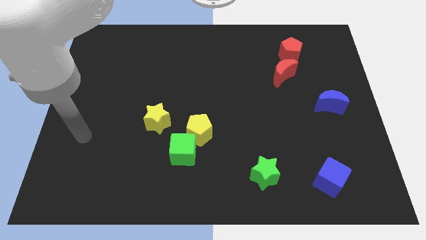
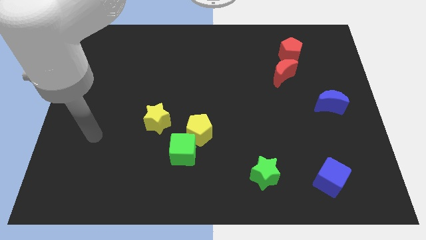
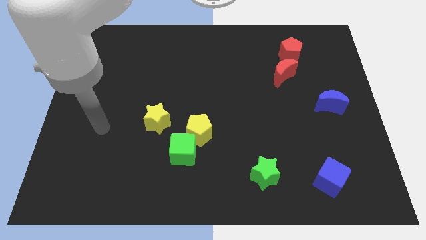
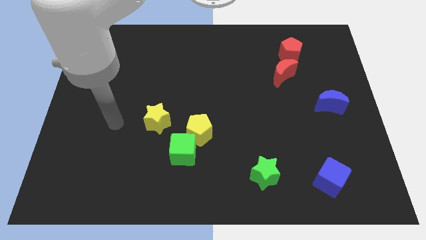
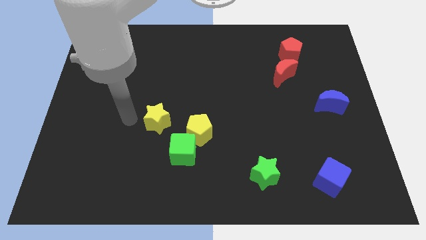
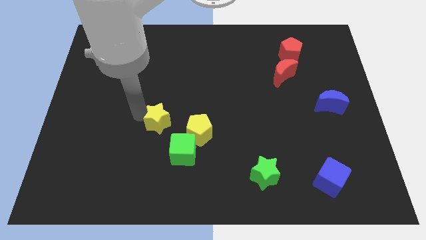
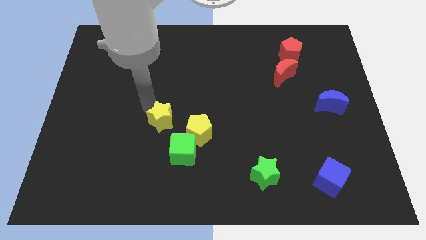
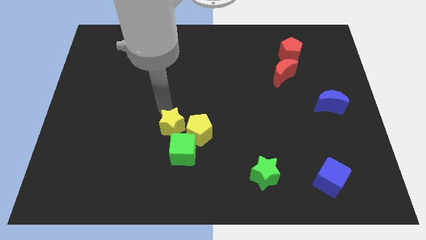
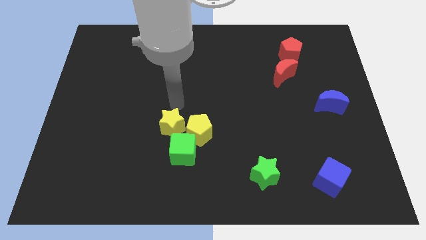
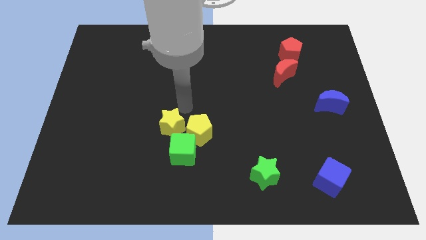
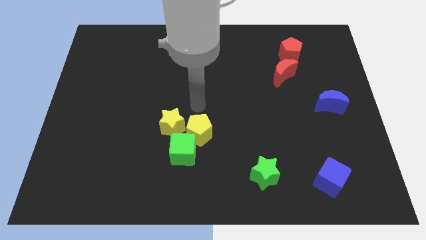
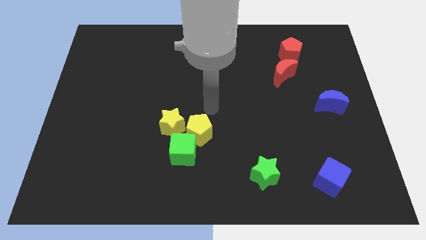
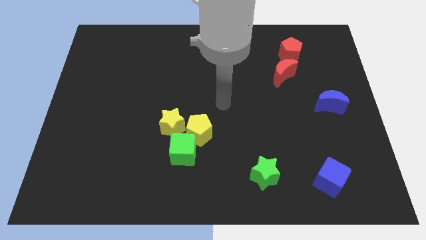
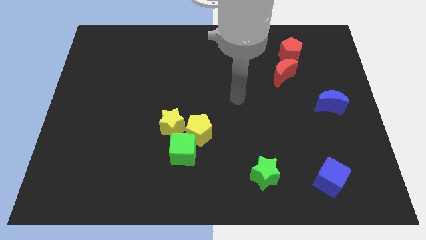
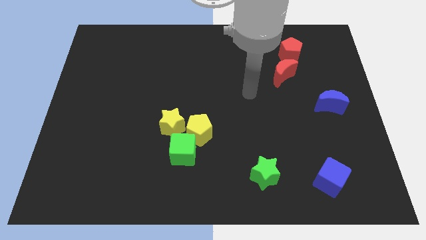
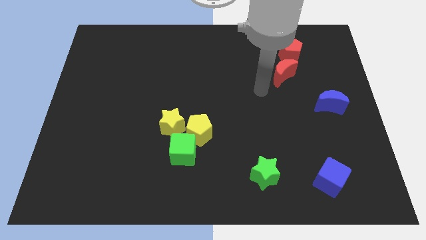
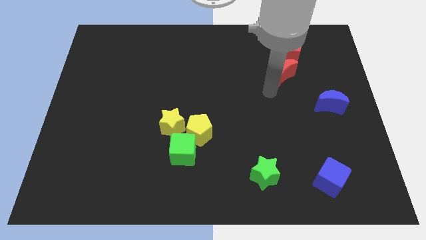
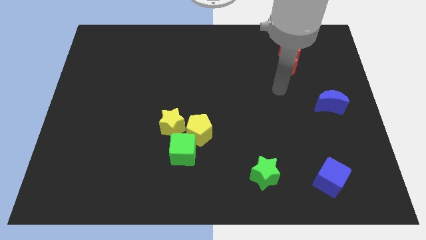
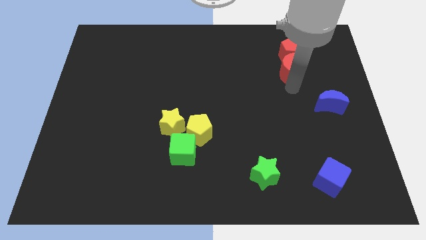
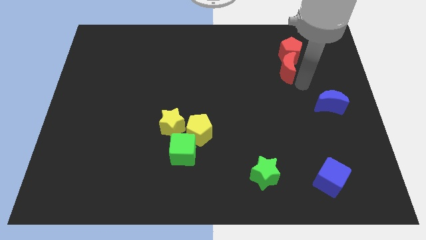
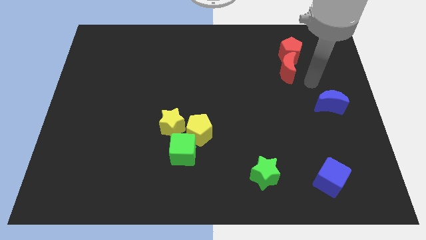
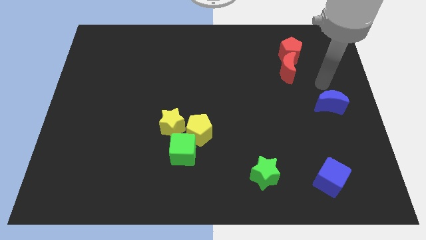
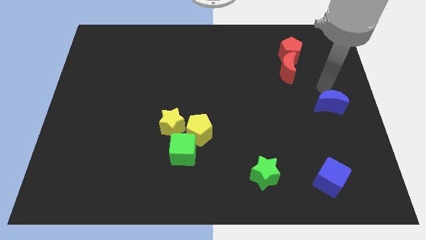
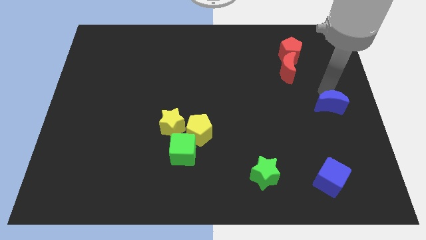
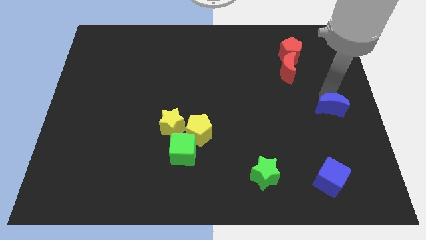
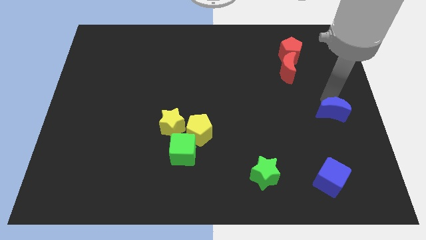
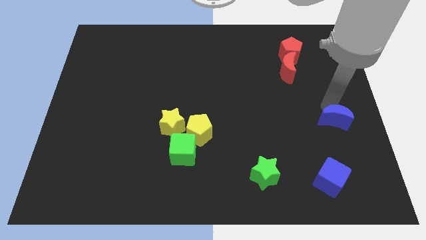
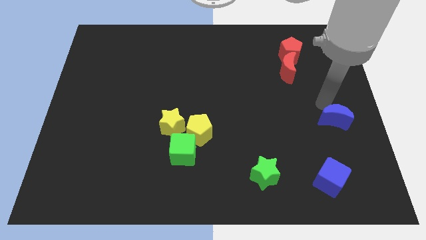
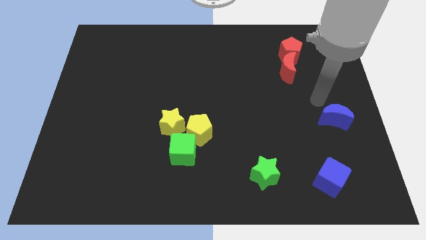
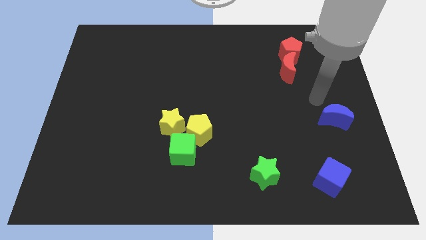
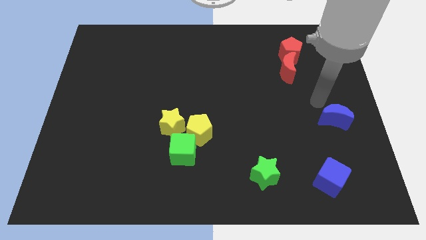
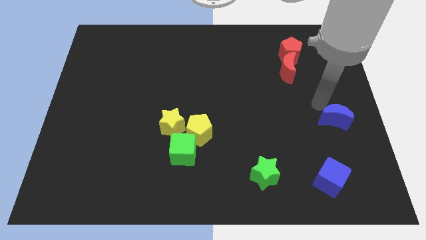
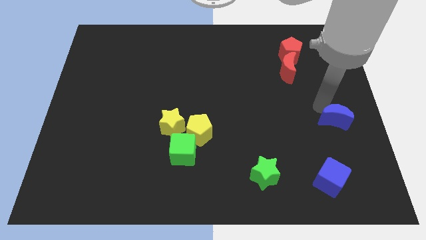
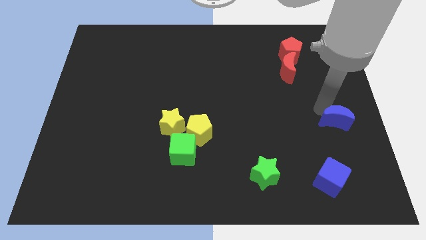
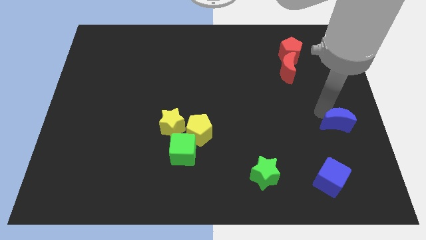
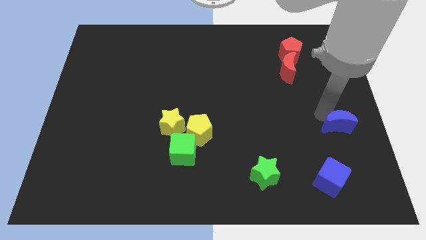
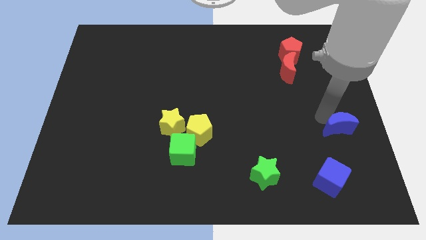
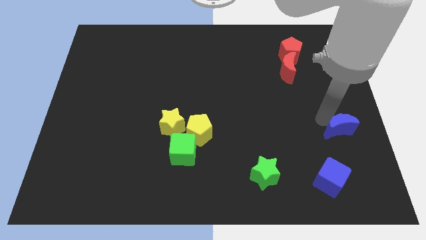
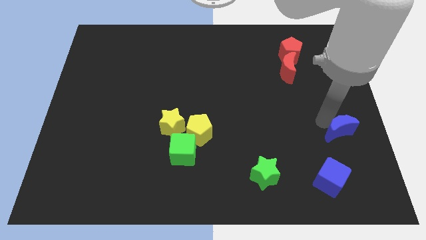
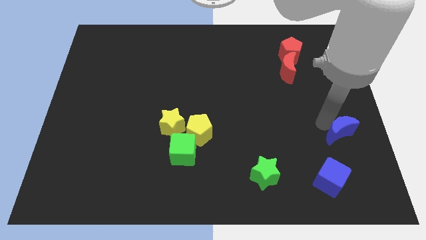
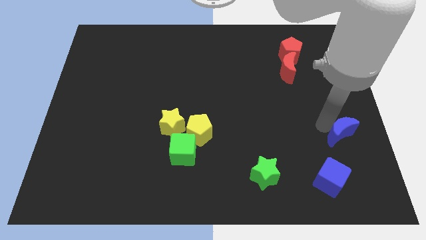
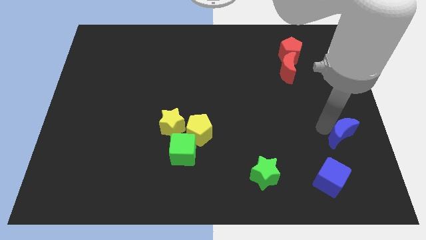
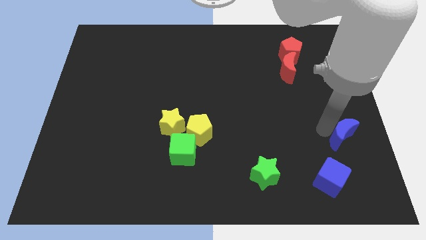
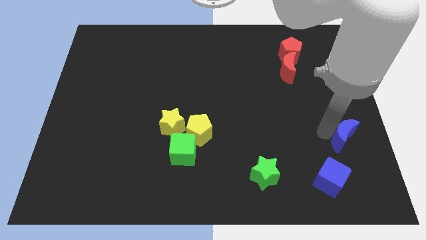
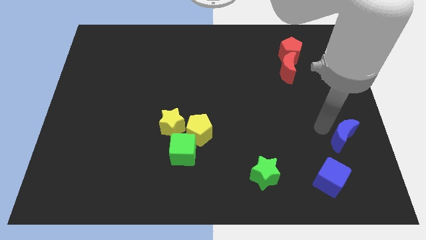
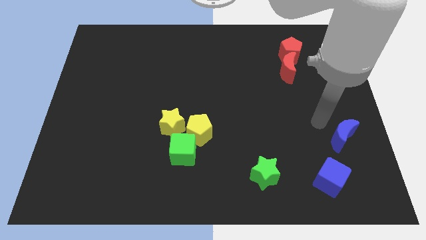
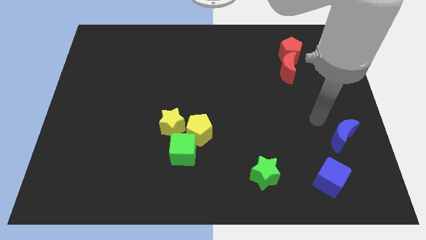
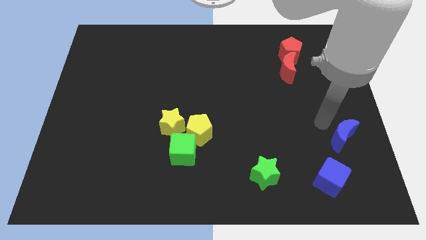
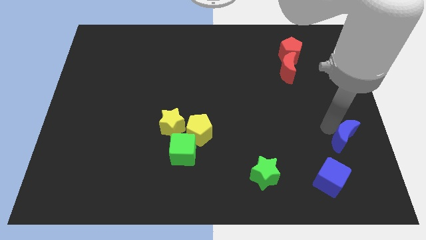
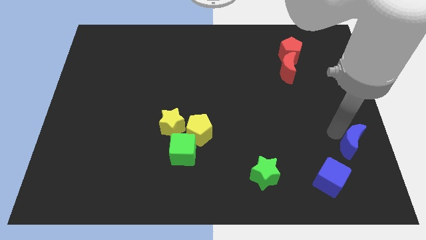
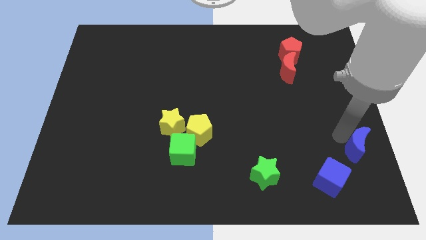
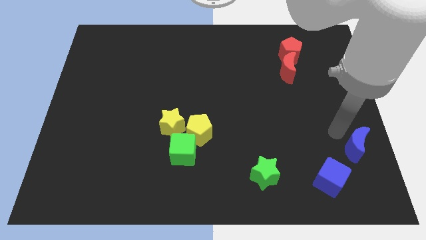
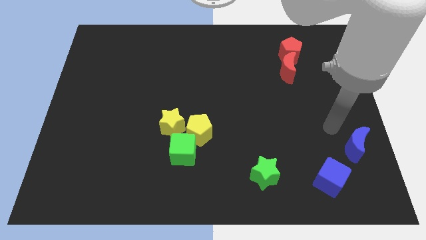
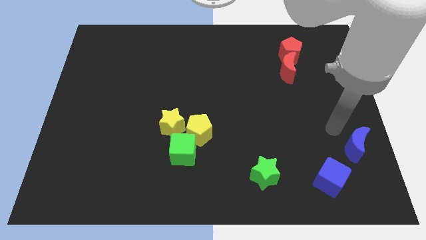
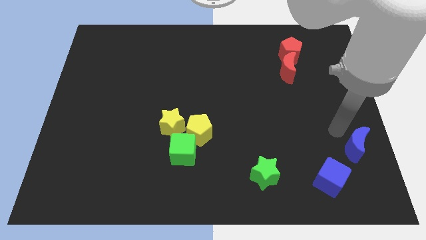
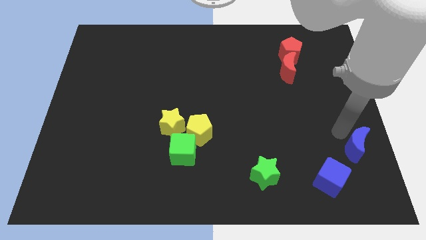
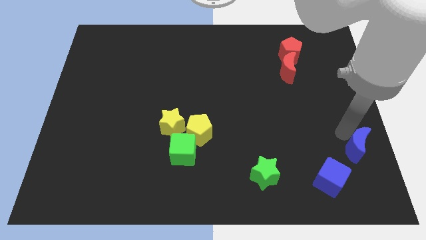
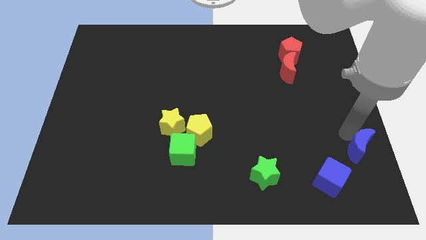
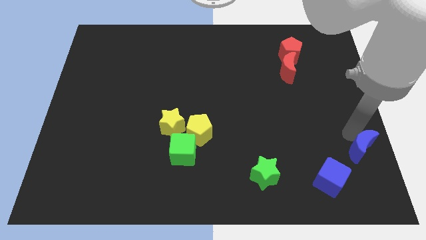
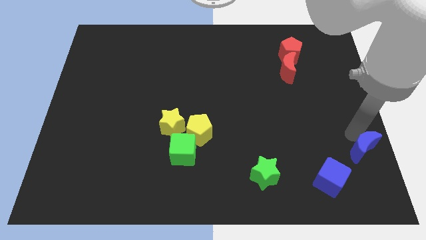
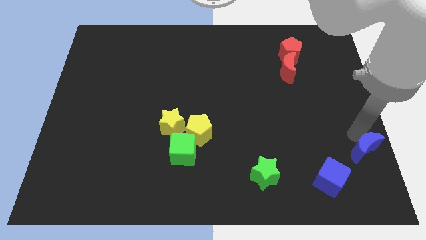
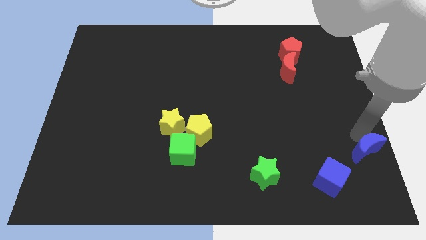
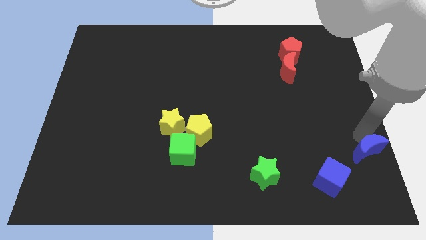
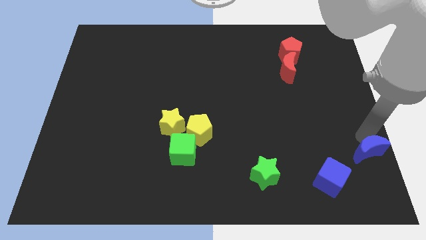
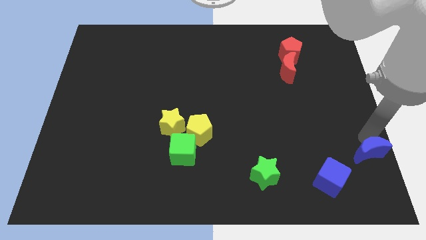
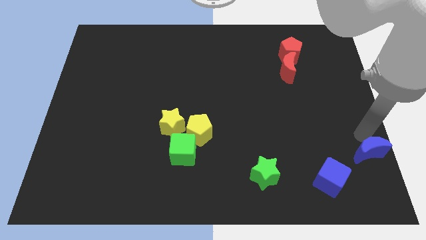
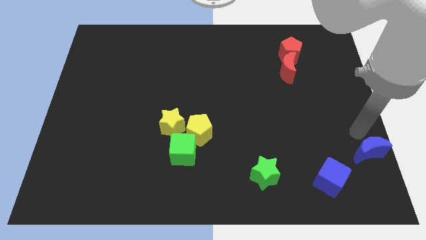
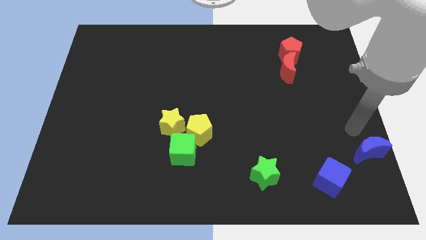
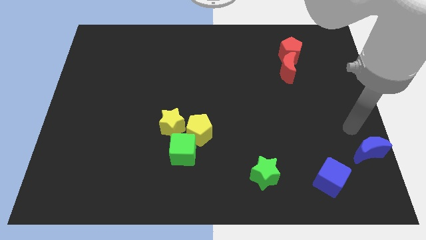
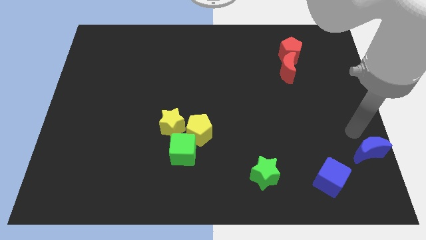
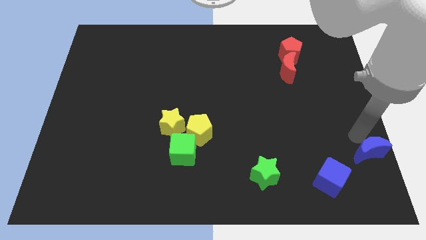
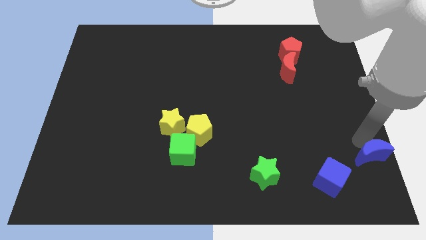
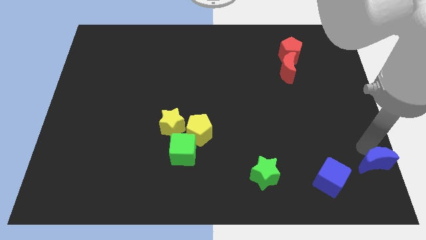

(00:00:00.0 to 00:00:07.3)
put the blue moon to the bottom right of the board
